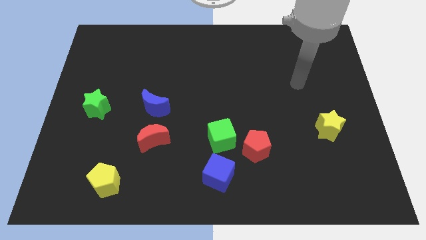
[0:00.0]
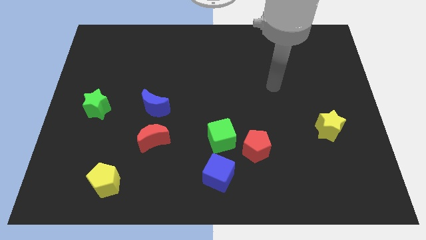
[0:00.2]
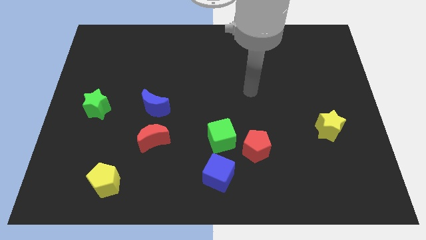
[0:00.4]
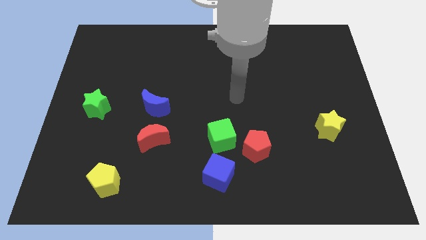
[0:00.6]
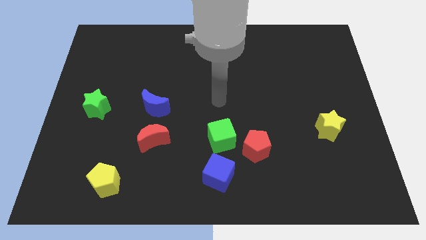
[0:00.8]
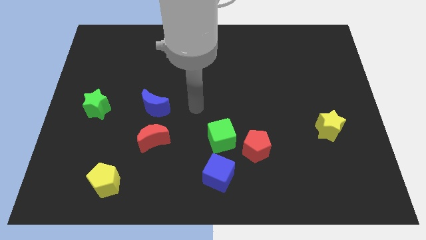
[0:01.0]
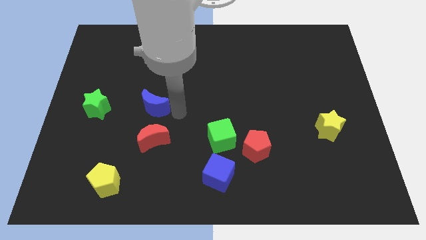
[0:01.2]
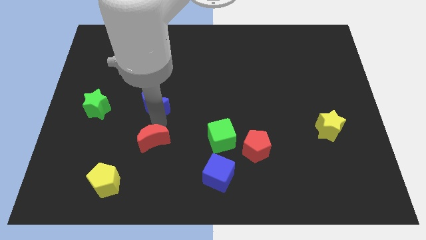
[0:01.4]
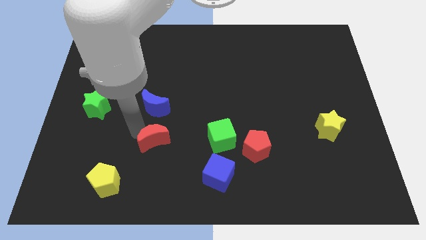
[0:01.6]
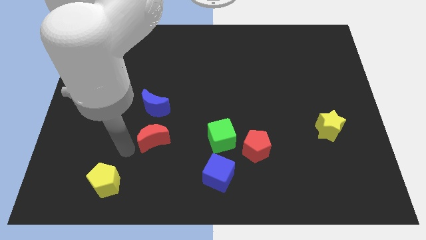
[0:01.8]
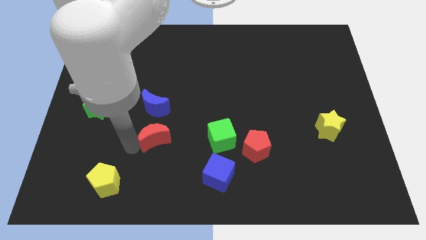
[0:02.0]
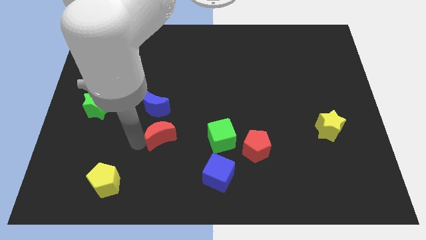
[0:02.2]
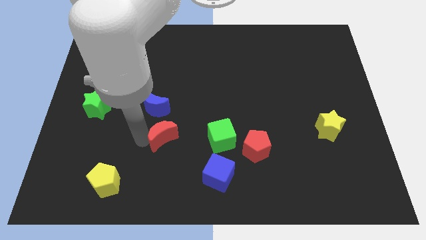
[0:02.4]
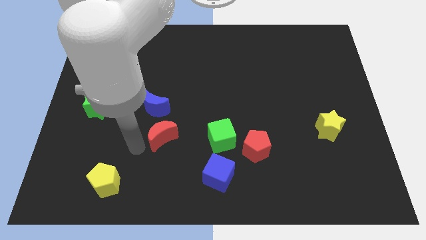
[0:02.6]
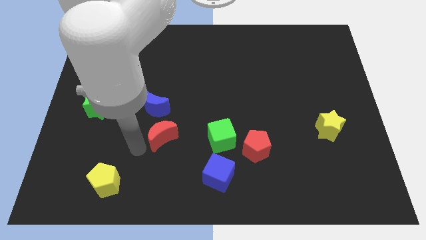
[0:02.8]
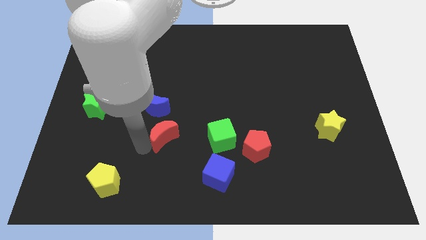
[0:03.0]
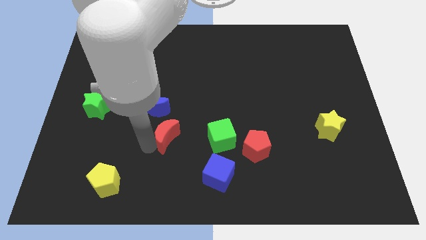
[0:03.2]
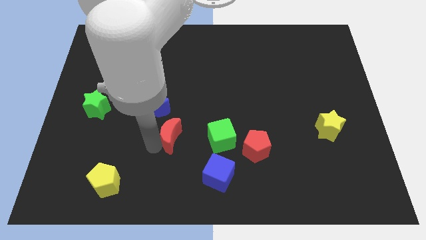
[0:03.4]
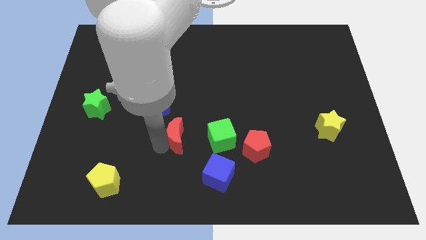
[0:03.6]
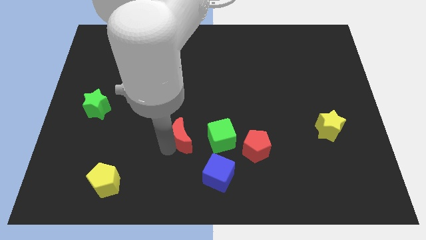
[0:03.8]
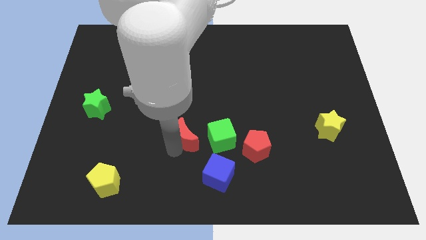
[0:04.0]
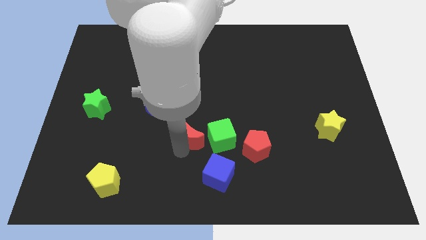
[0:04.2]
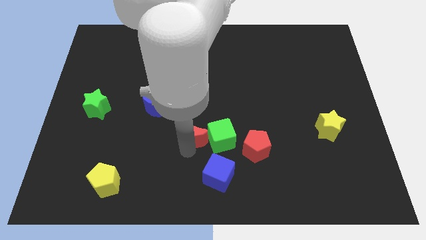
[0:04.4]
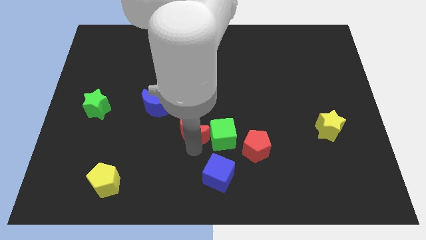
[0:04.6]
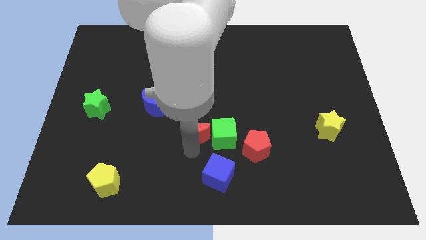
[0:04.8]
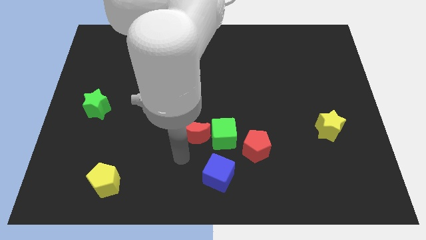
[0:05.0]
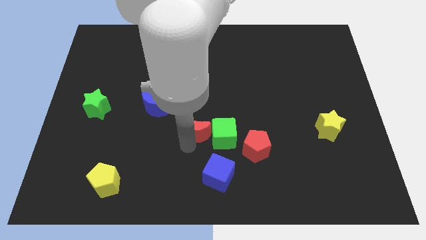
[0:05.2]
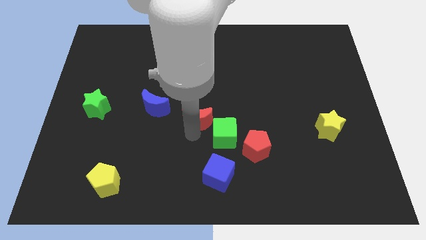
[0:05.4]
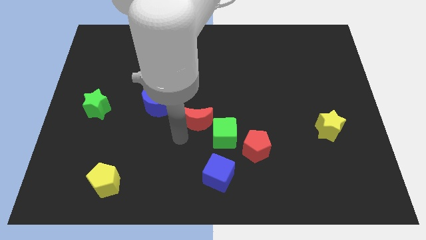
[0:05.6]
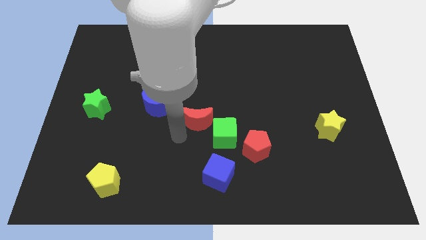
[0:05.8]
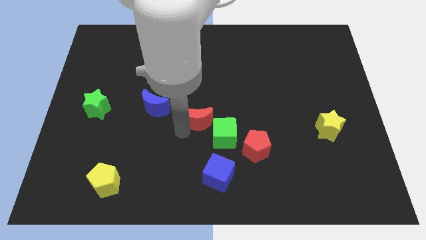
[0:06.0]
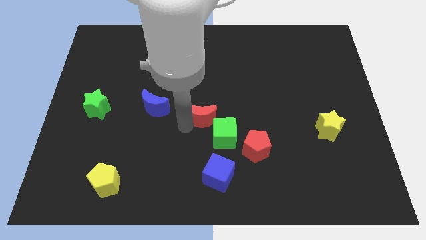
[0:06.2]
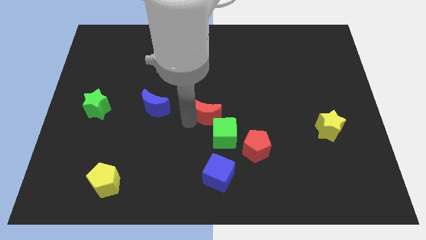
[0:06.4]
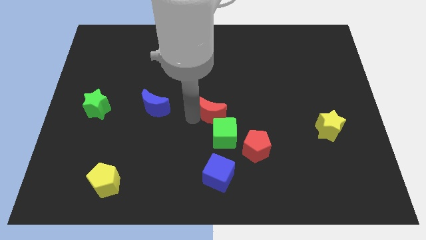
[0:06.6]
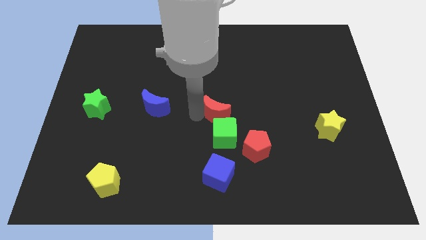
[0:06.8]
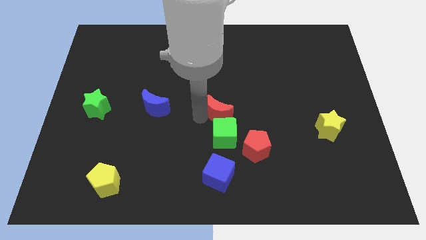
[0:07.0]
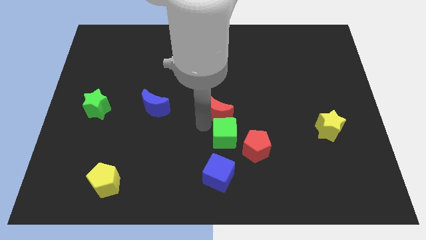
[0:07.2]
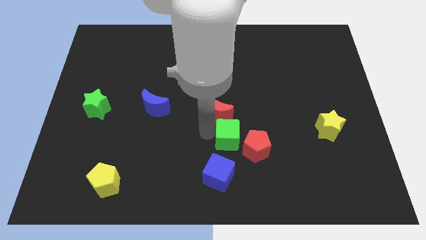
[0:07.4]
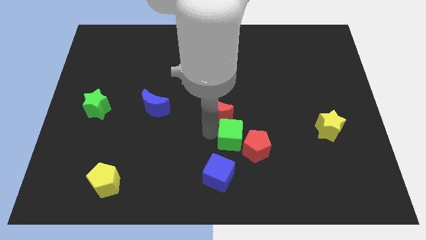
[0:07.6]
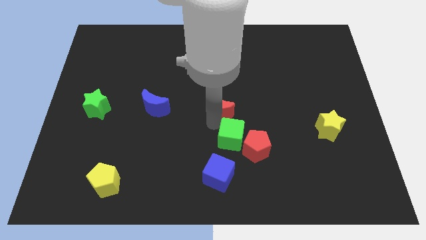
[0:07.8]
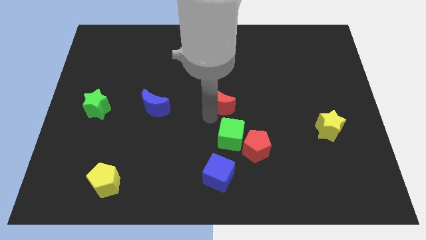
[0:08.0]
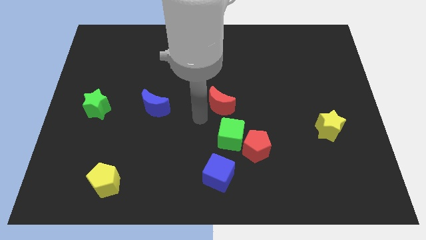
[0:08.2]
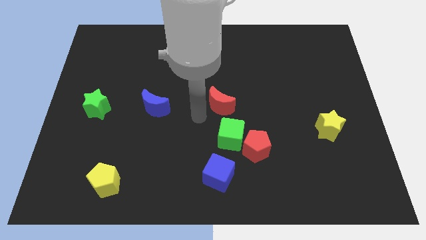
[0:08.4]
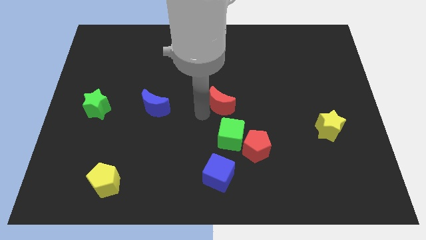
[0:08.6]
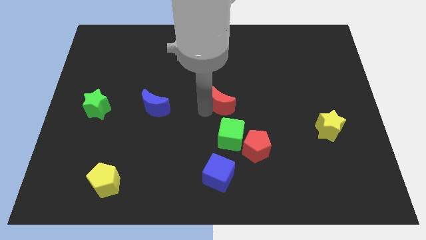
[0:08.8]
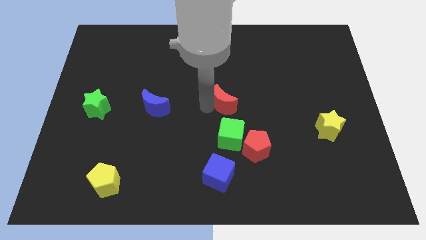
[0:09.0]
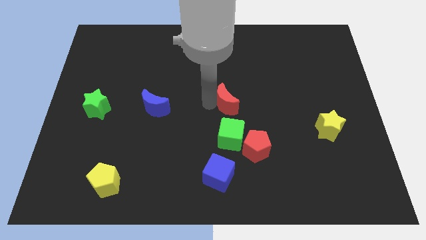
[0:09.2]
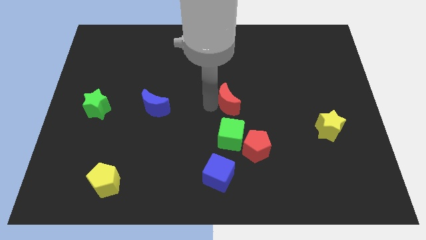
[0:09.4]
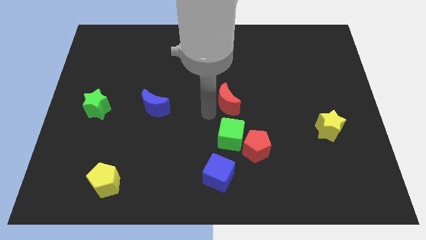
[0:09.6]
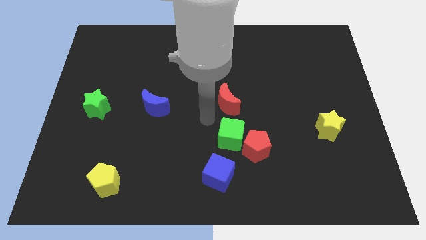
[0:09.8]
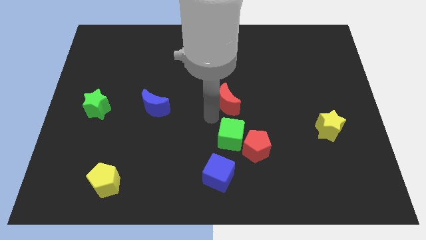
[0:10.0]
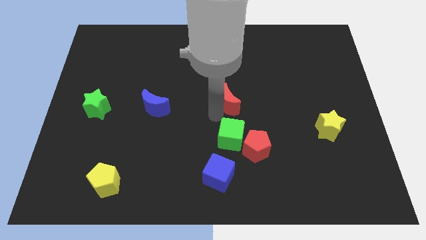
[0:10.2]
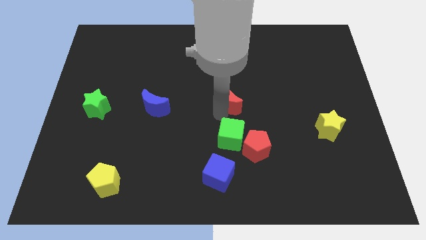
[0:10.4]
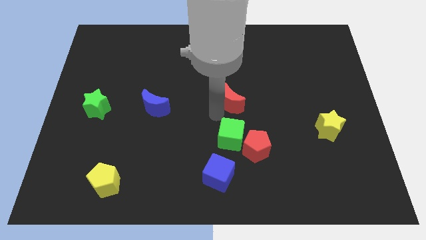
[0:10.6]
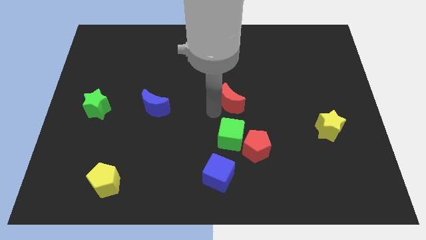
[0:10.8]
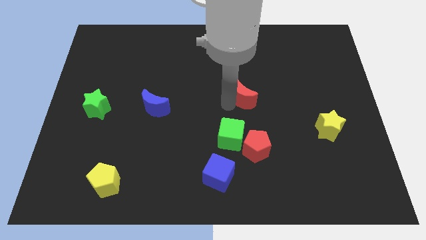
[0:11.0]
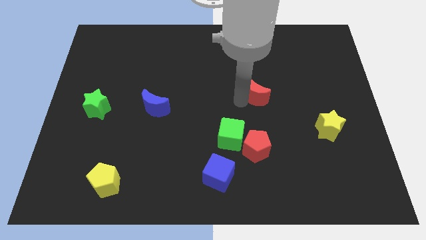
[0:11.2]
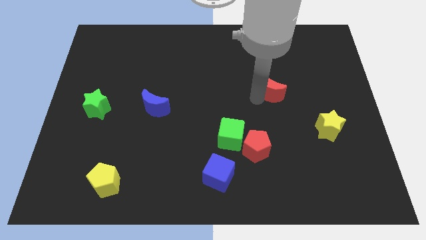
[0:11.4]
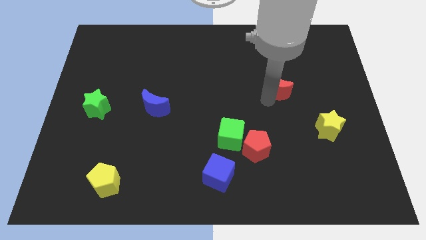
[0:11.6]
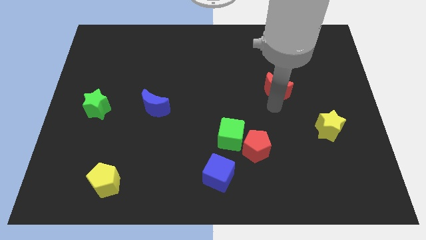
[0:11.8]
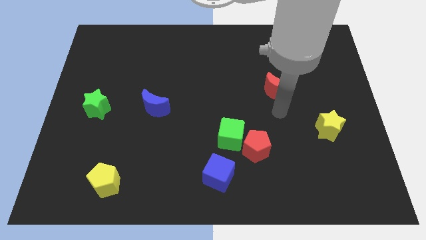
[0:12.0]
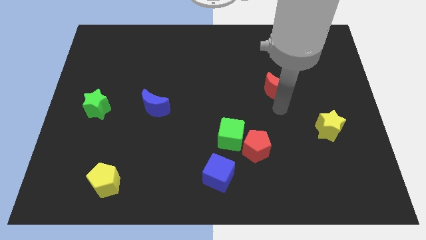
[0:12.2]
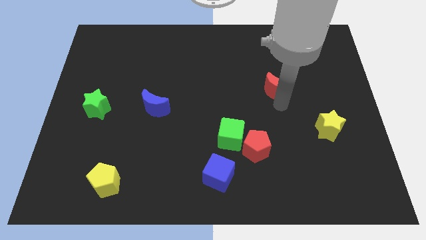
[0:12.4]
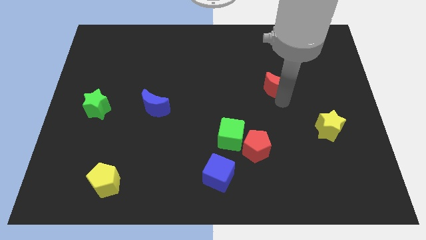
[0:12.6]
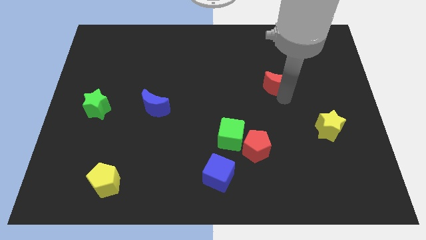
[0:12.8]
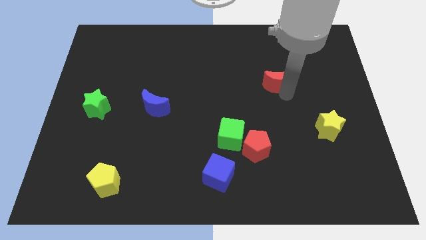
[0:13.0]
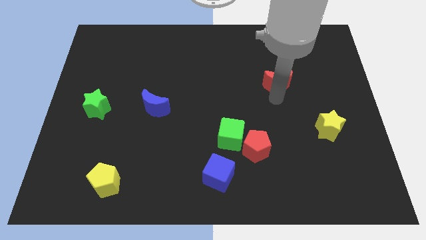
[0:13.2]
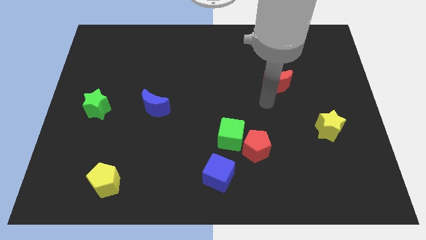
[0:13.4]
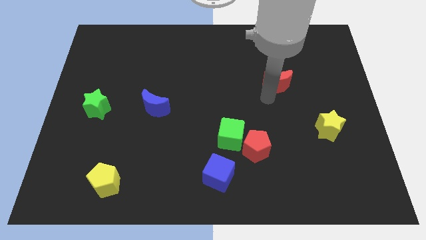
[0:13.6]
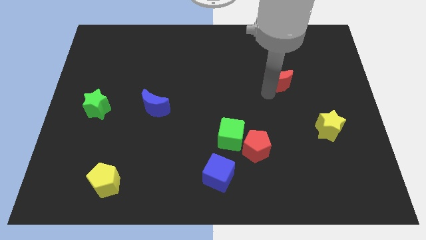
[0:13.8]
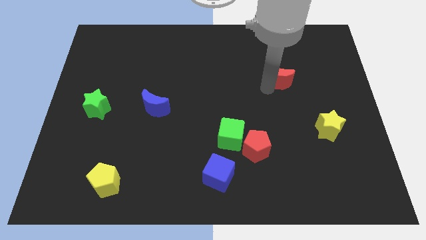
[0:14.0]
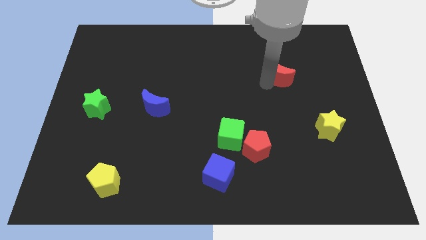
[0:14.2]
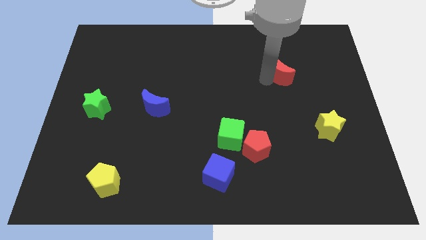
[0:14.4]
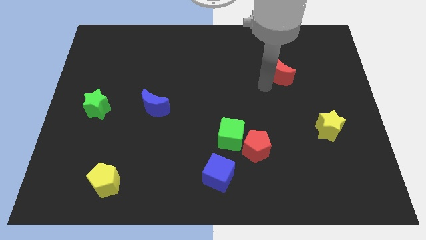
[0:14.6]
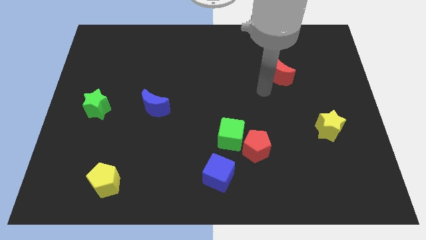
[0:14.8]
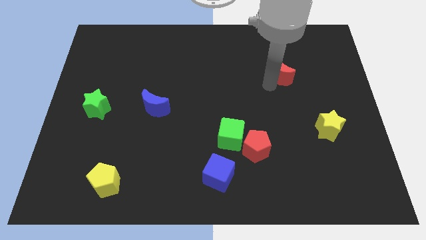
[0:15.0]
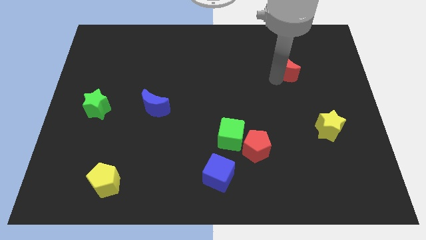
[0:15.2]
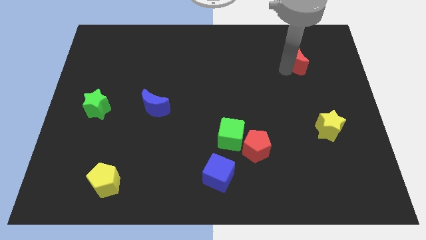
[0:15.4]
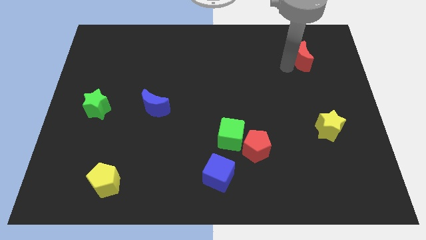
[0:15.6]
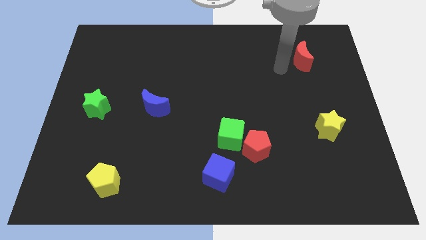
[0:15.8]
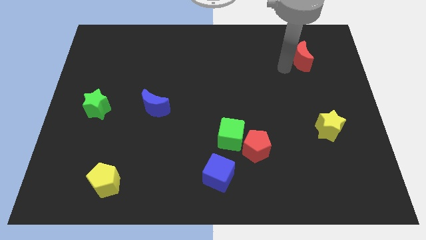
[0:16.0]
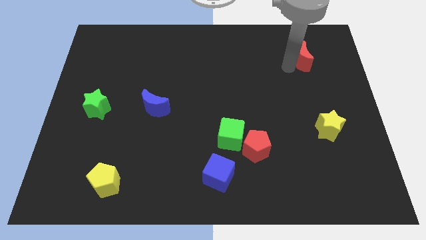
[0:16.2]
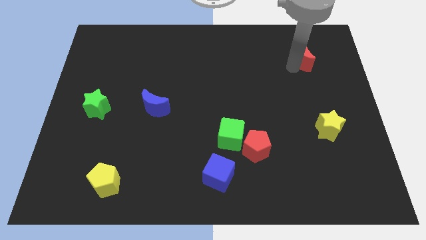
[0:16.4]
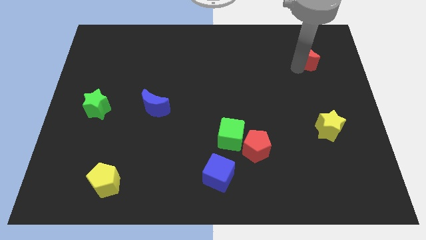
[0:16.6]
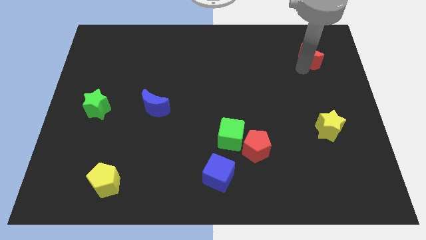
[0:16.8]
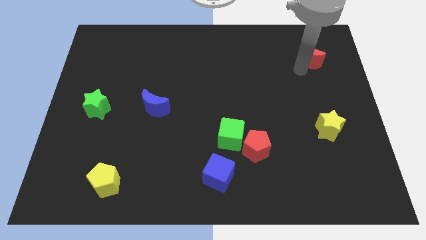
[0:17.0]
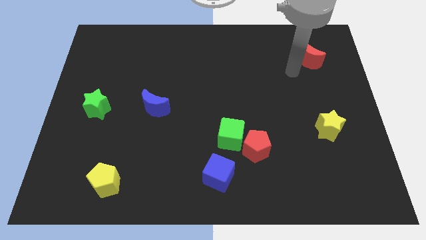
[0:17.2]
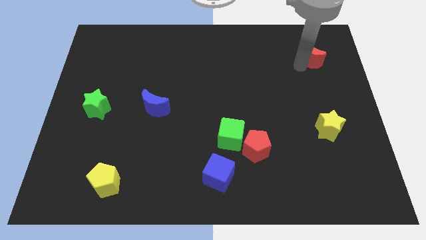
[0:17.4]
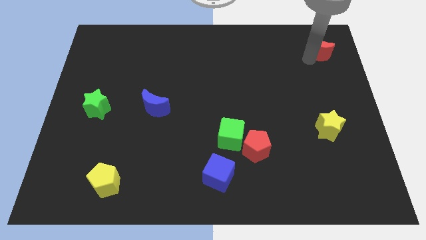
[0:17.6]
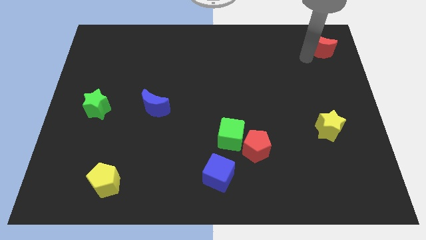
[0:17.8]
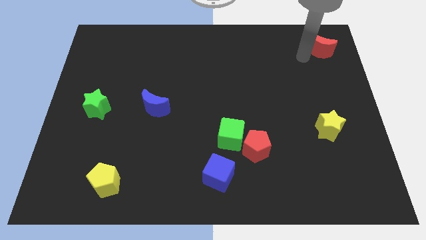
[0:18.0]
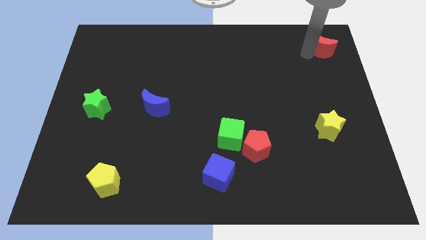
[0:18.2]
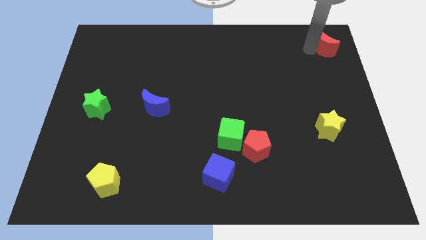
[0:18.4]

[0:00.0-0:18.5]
move the red moon to the top right
